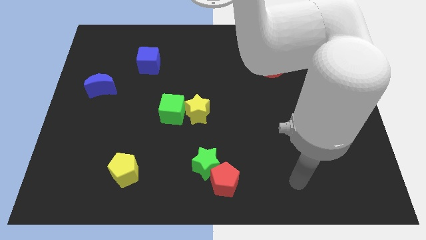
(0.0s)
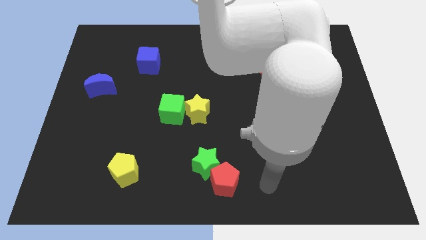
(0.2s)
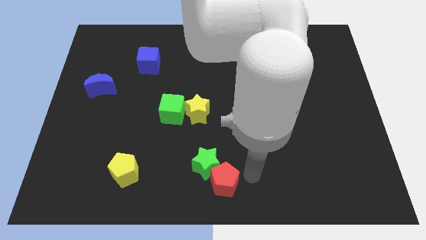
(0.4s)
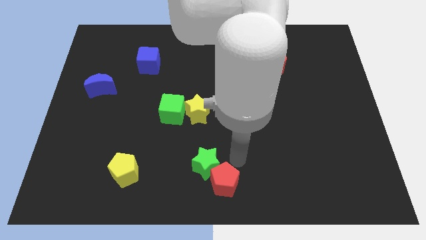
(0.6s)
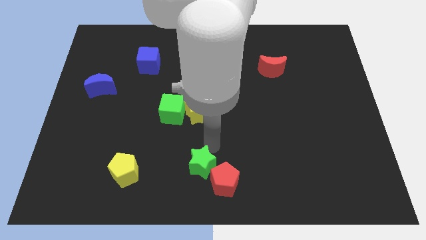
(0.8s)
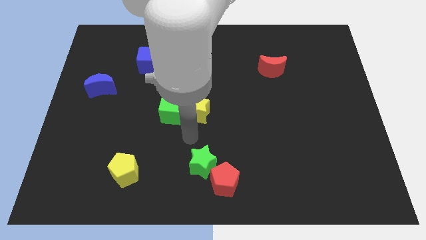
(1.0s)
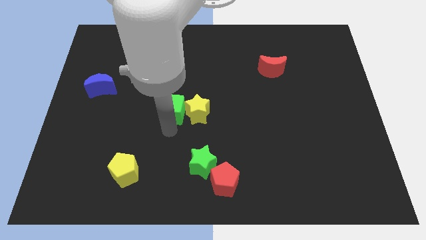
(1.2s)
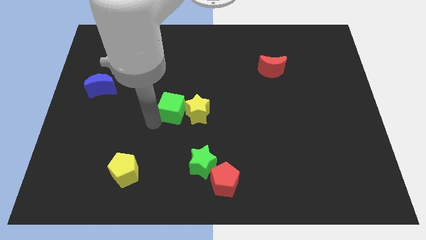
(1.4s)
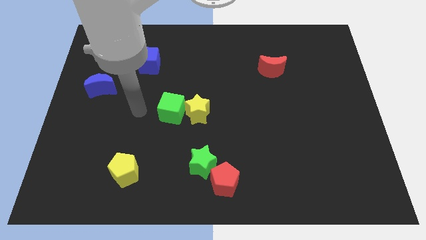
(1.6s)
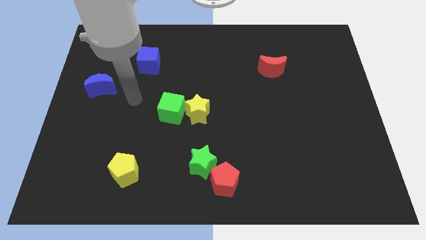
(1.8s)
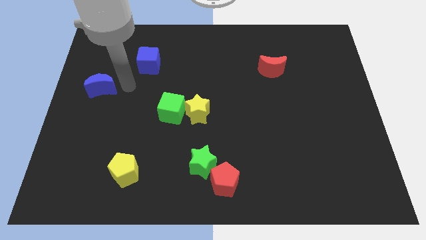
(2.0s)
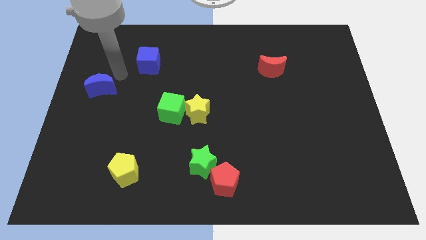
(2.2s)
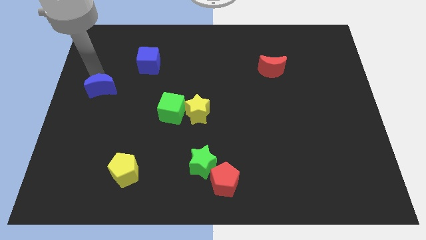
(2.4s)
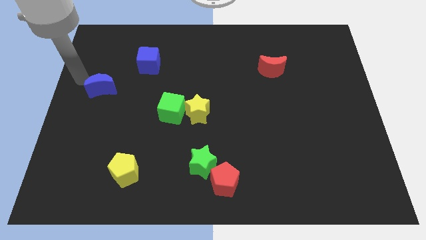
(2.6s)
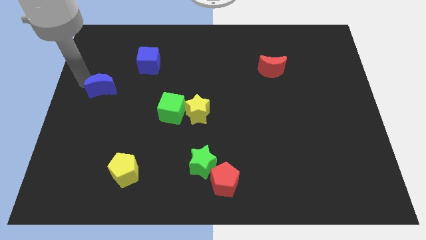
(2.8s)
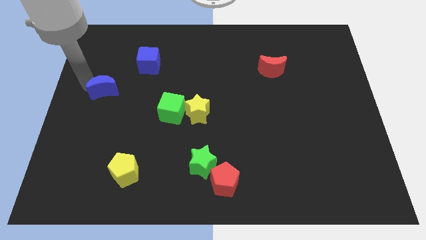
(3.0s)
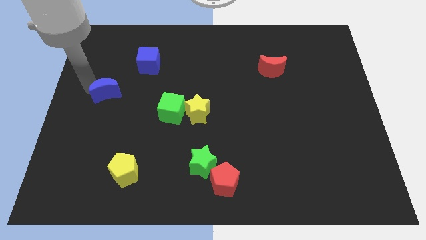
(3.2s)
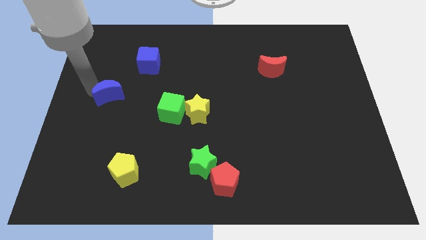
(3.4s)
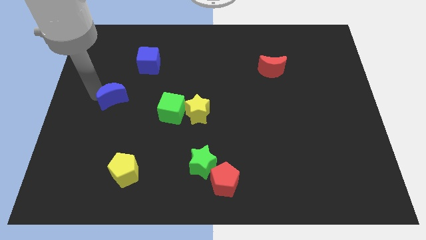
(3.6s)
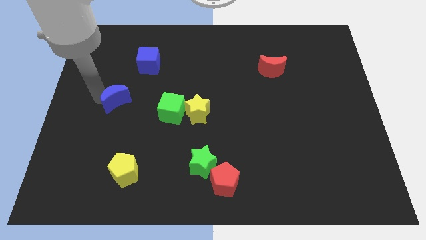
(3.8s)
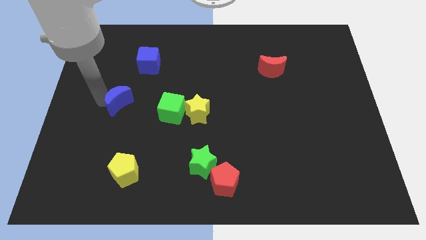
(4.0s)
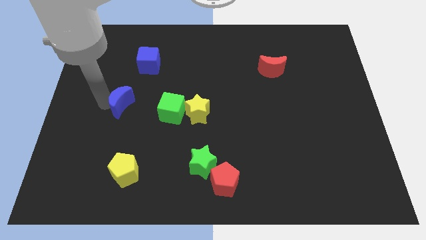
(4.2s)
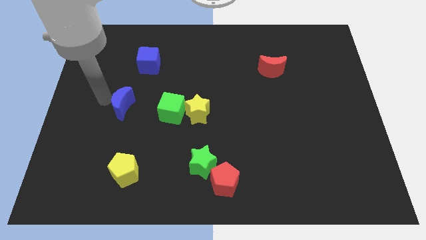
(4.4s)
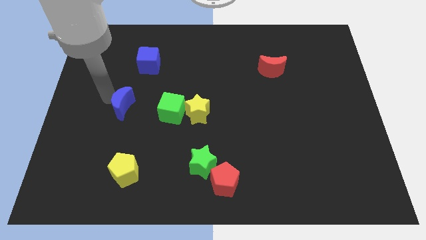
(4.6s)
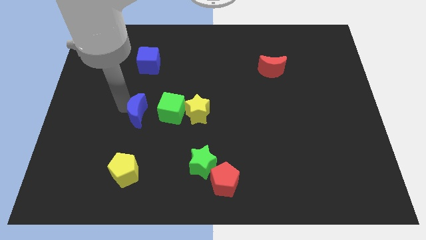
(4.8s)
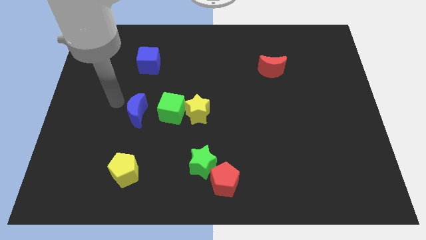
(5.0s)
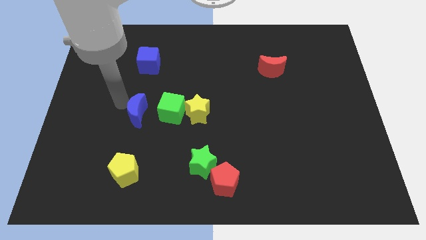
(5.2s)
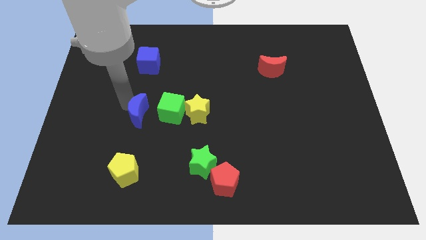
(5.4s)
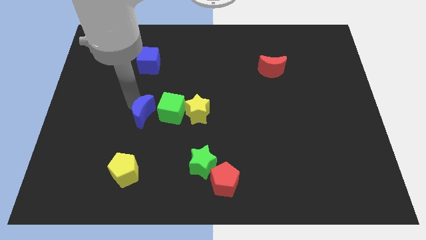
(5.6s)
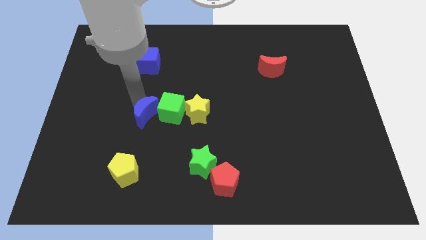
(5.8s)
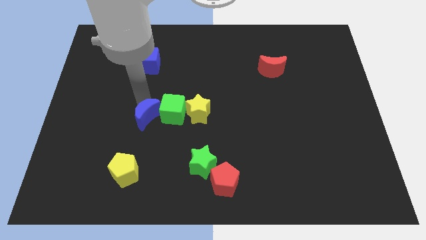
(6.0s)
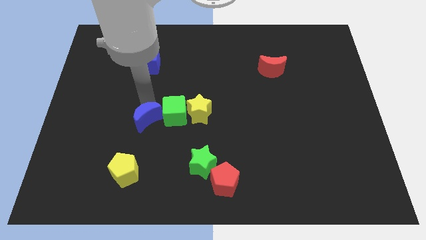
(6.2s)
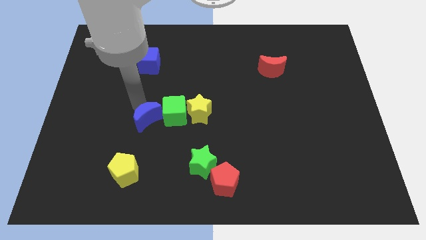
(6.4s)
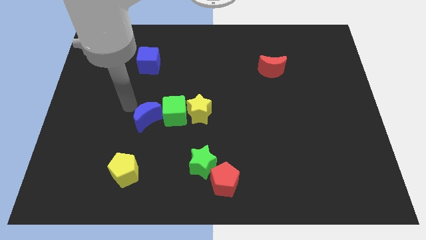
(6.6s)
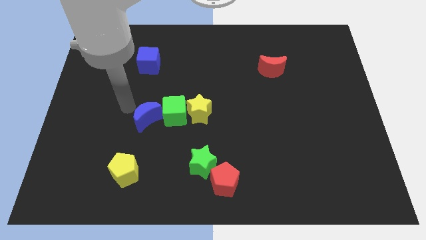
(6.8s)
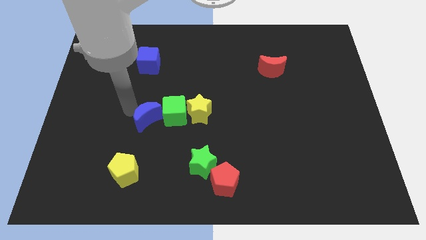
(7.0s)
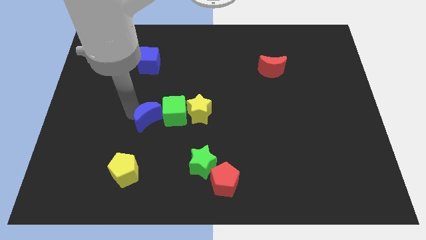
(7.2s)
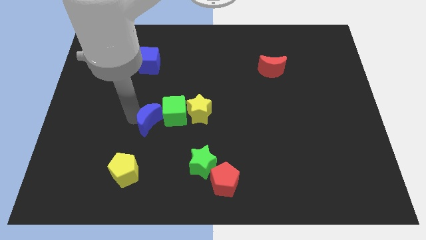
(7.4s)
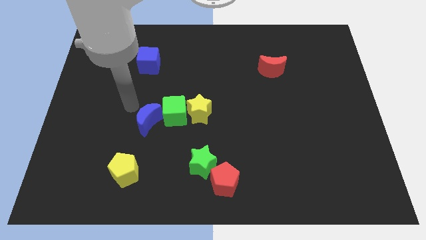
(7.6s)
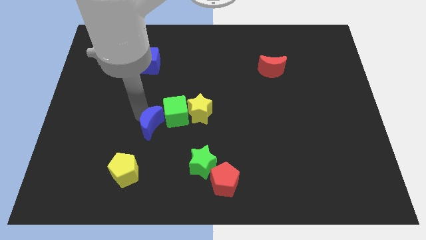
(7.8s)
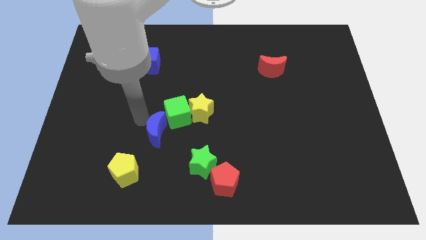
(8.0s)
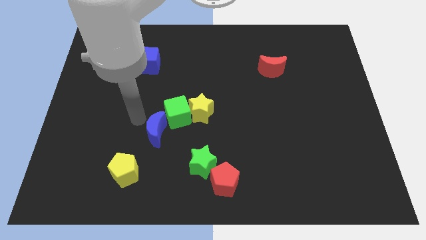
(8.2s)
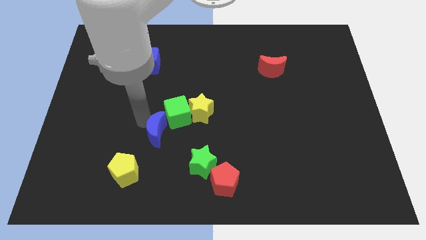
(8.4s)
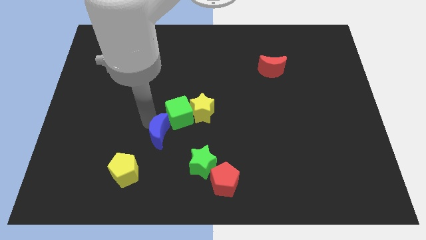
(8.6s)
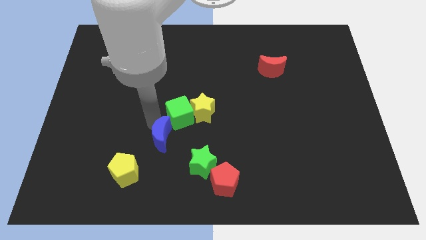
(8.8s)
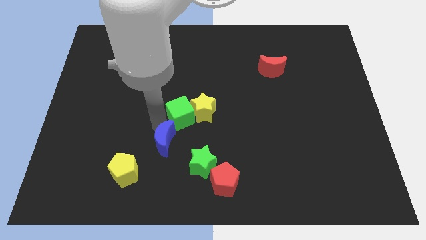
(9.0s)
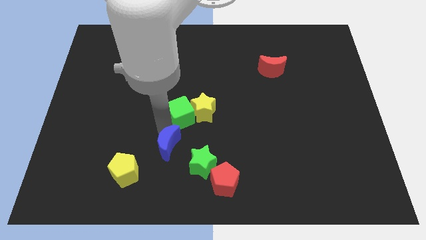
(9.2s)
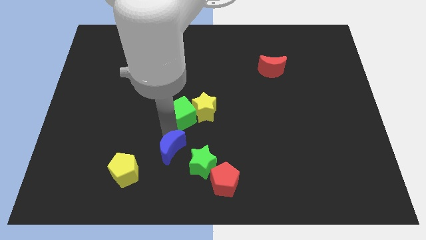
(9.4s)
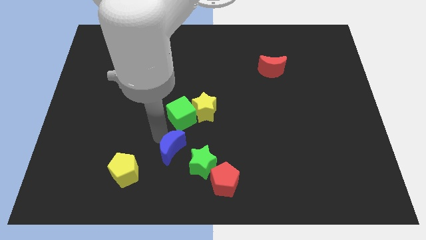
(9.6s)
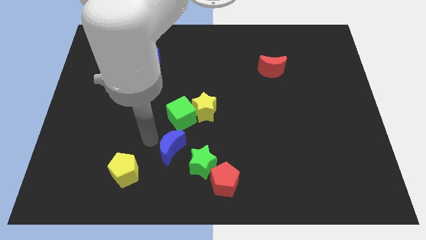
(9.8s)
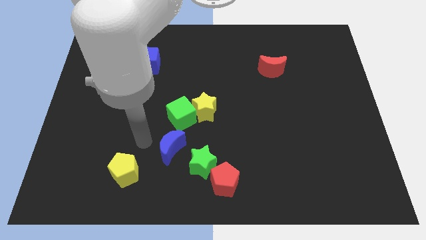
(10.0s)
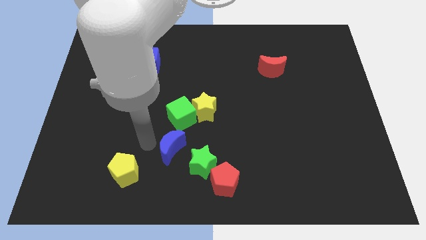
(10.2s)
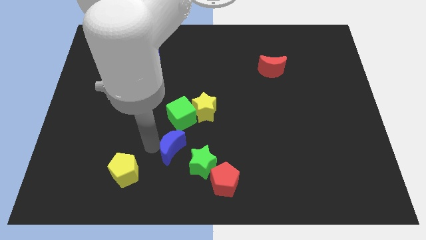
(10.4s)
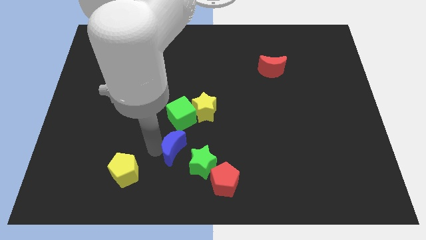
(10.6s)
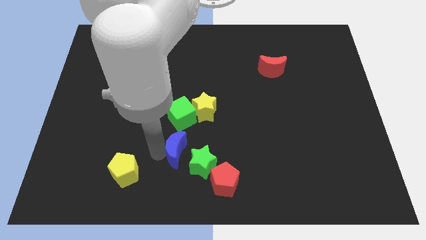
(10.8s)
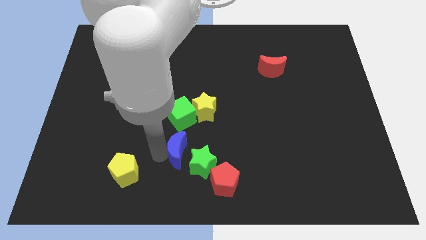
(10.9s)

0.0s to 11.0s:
move the blue moon to the green star

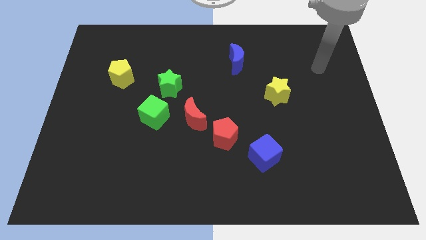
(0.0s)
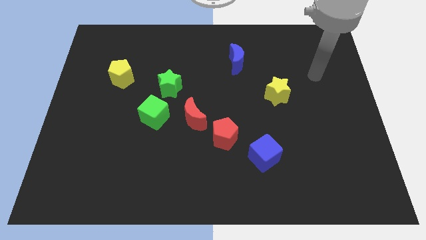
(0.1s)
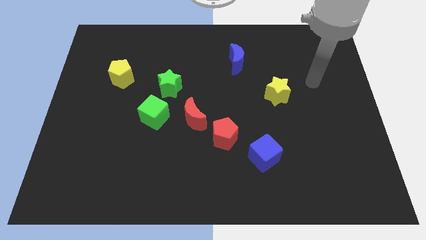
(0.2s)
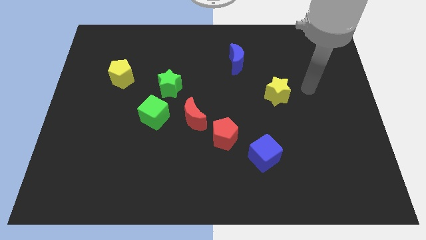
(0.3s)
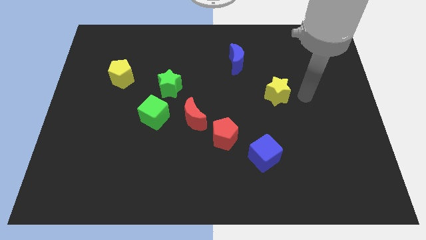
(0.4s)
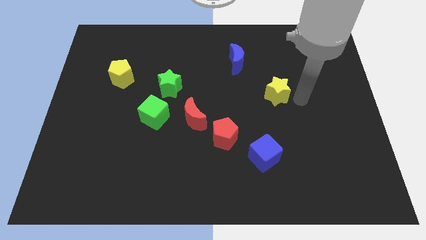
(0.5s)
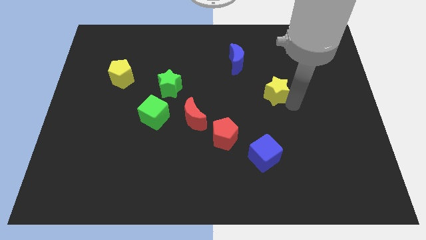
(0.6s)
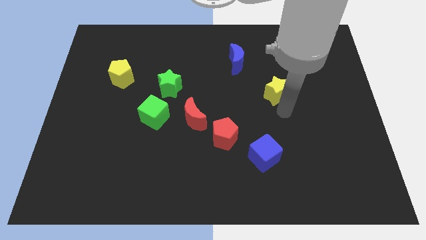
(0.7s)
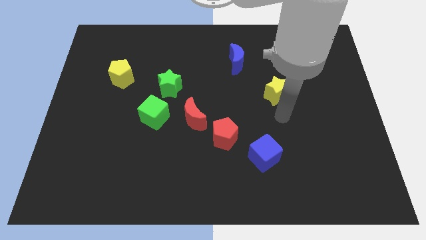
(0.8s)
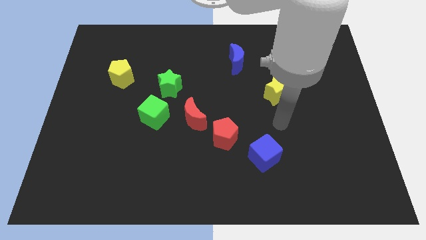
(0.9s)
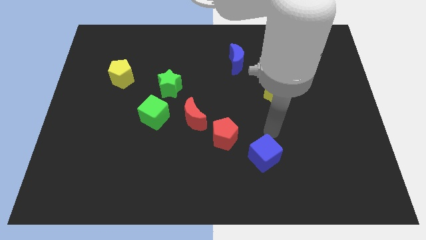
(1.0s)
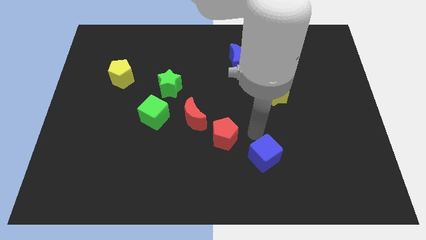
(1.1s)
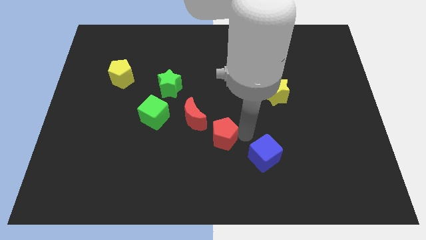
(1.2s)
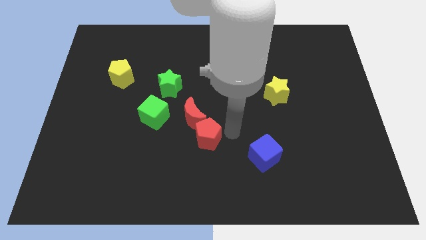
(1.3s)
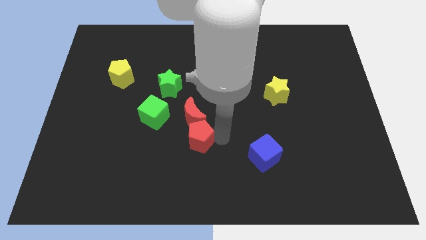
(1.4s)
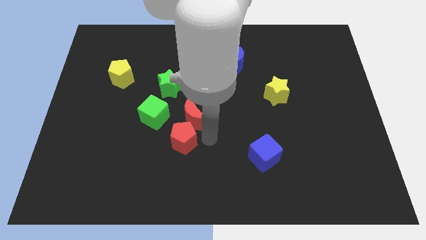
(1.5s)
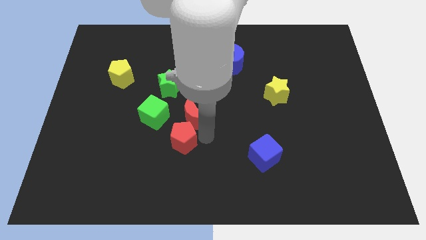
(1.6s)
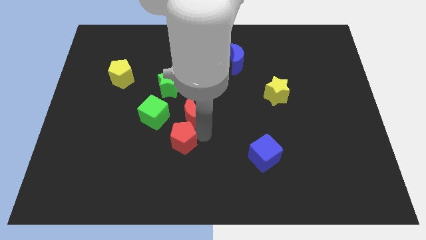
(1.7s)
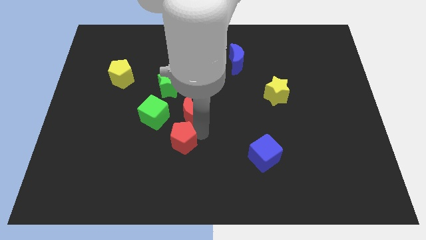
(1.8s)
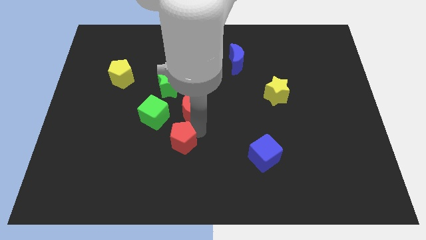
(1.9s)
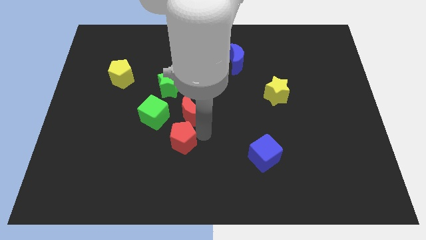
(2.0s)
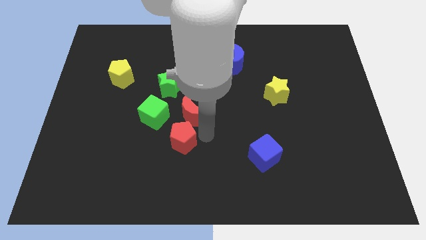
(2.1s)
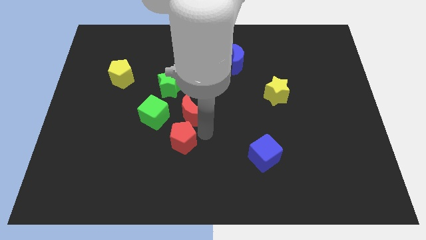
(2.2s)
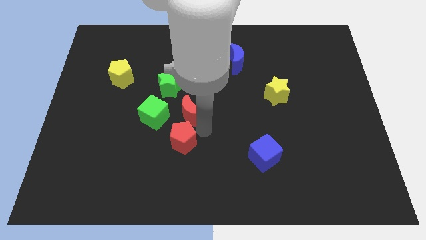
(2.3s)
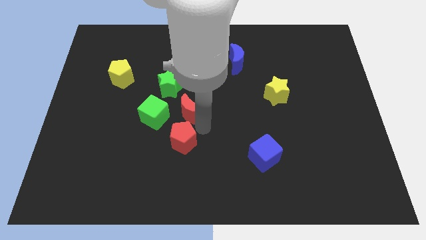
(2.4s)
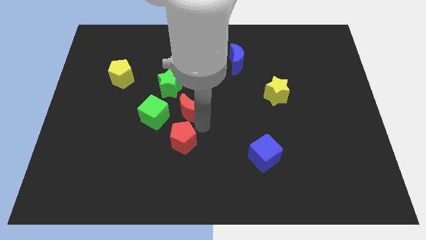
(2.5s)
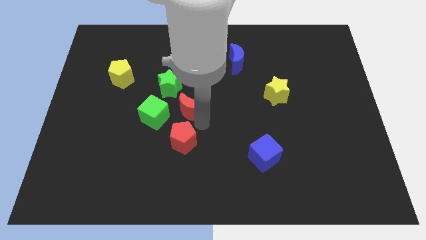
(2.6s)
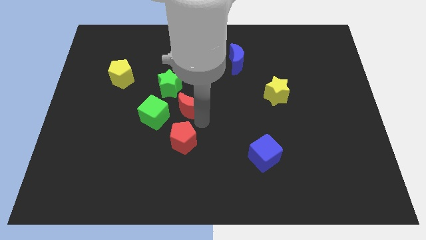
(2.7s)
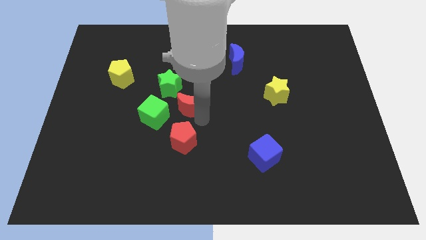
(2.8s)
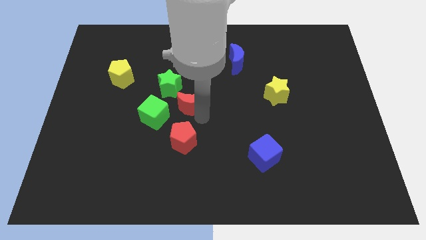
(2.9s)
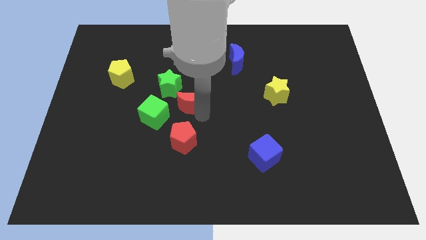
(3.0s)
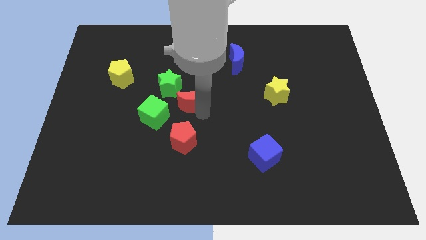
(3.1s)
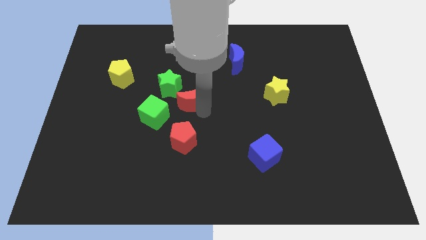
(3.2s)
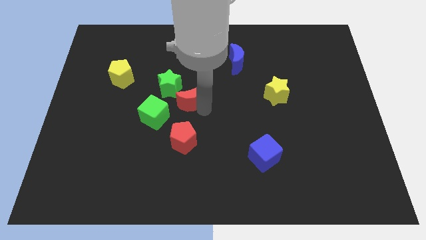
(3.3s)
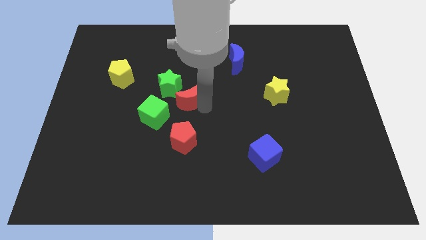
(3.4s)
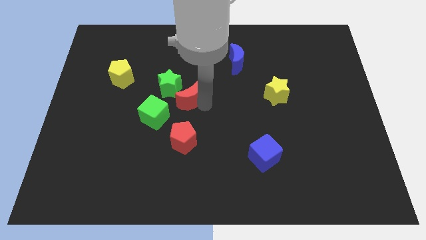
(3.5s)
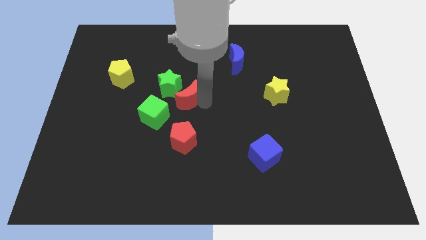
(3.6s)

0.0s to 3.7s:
slide the red moon close to the green star
